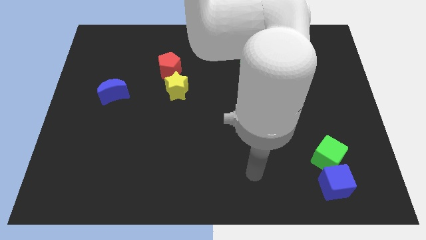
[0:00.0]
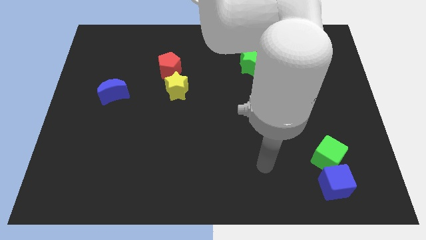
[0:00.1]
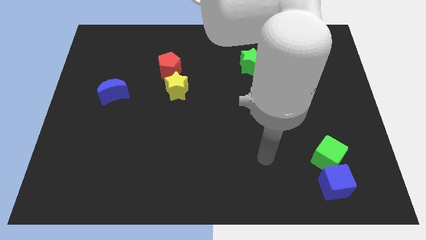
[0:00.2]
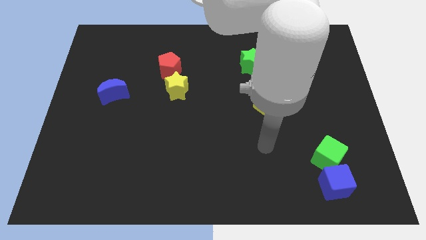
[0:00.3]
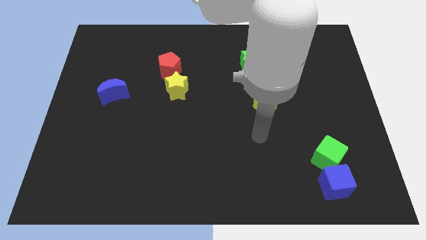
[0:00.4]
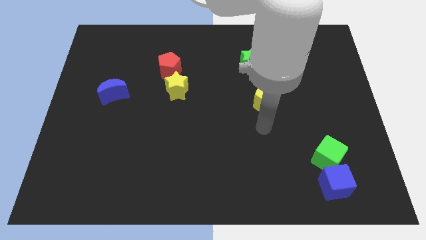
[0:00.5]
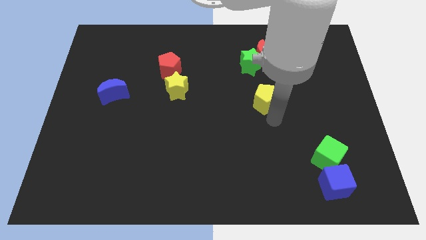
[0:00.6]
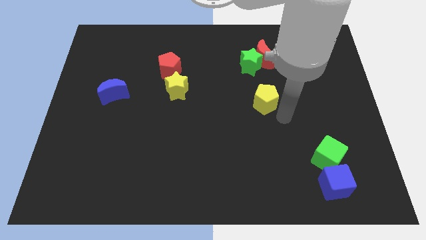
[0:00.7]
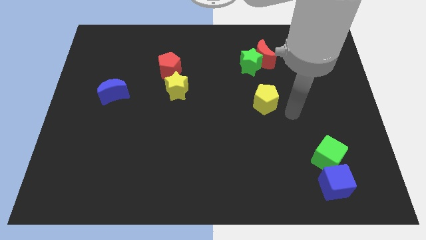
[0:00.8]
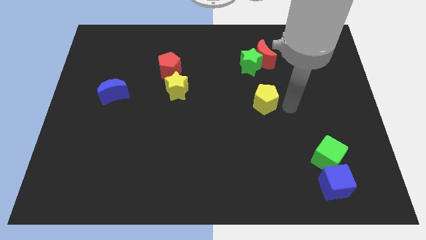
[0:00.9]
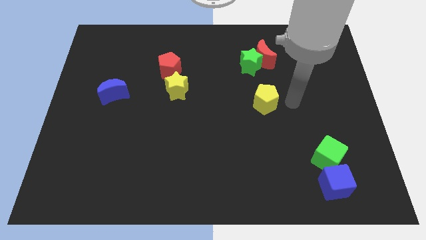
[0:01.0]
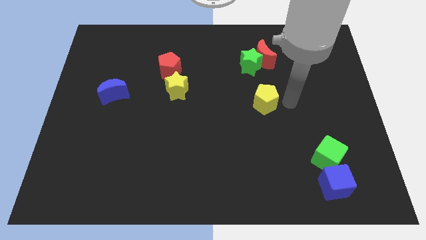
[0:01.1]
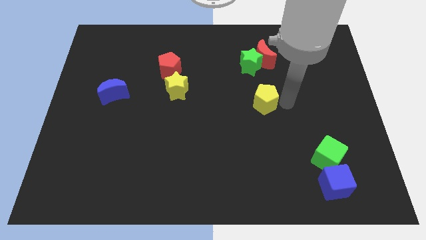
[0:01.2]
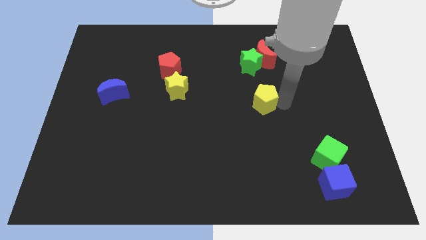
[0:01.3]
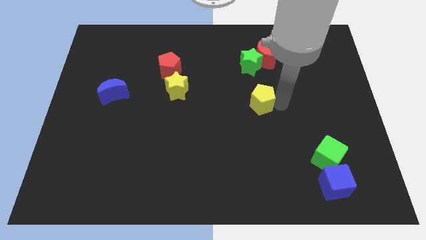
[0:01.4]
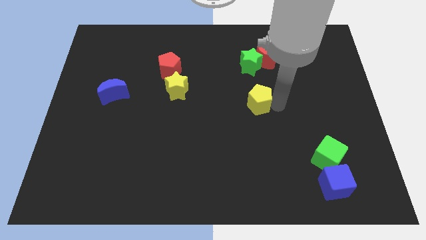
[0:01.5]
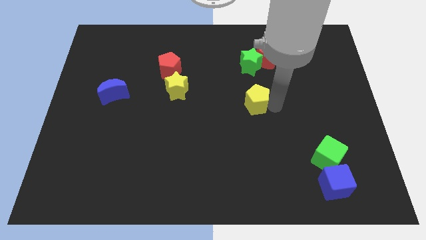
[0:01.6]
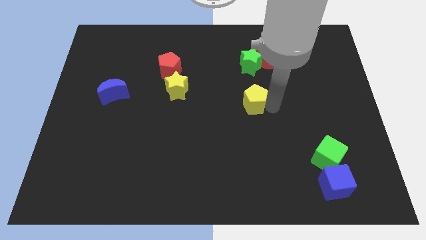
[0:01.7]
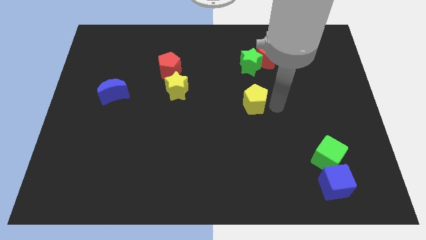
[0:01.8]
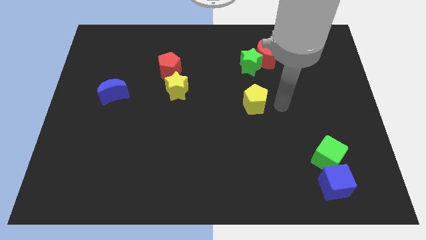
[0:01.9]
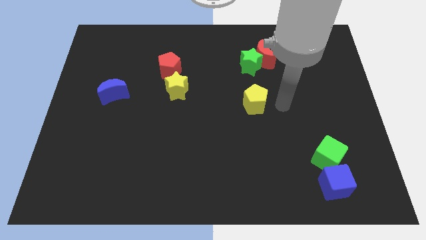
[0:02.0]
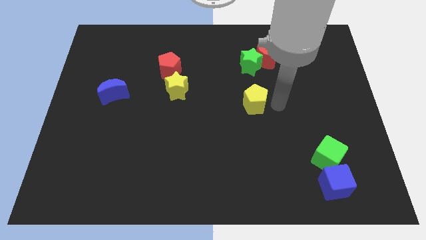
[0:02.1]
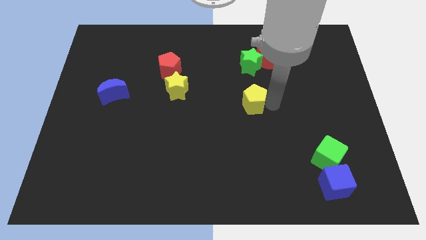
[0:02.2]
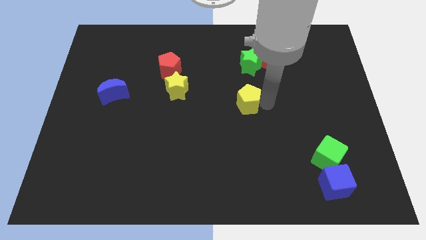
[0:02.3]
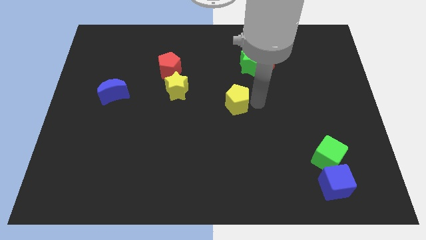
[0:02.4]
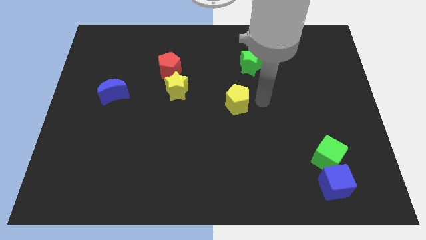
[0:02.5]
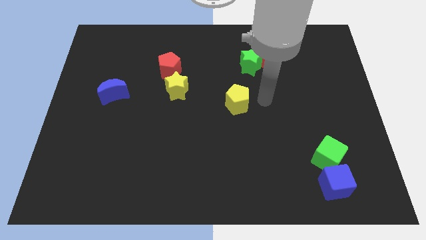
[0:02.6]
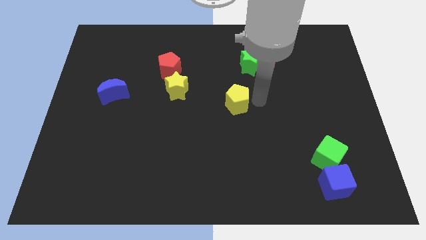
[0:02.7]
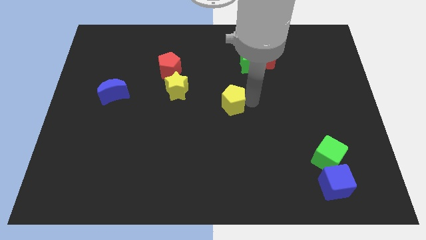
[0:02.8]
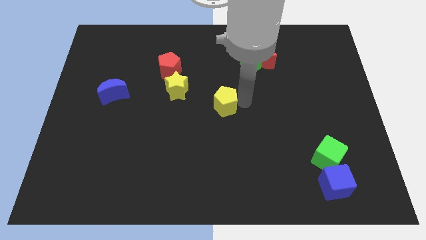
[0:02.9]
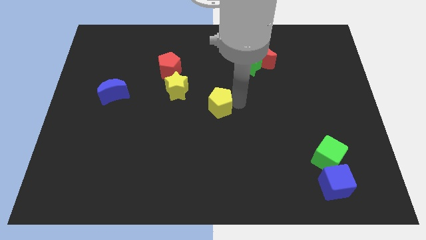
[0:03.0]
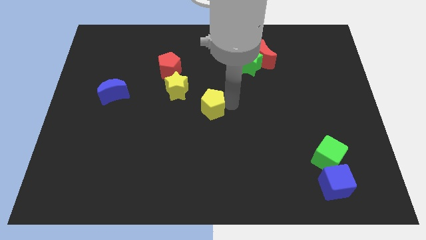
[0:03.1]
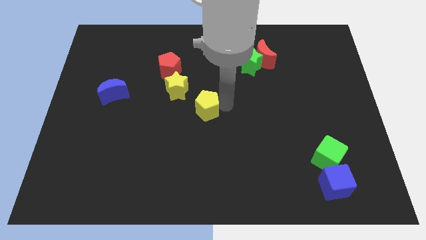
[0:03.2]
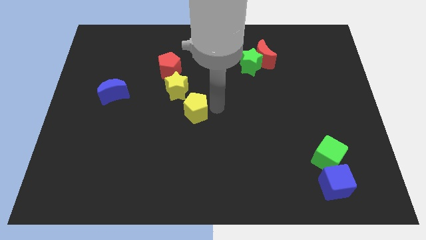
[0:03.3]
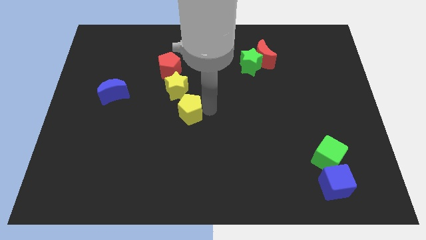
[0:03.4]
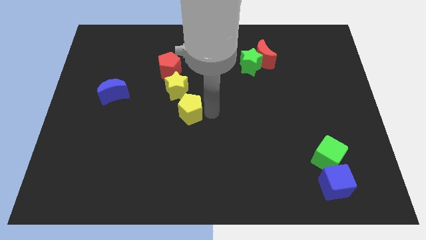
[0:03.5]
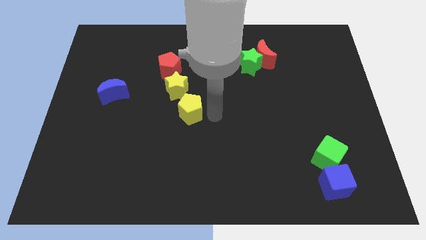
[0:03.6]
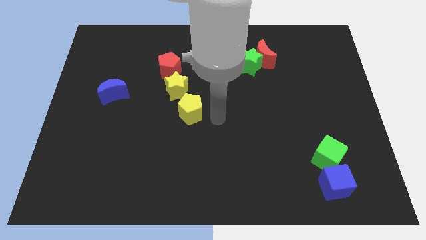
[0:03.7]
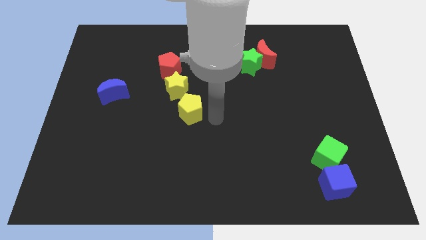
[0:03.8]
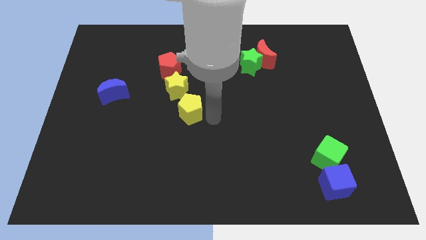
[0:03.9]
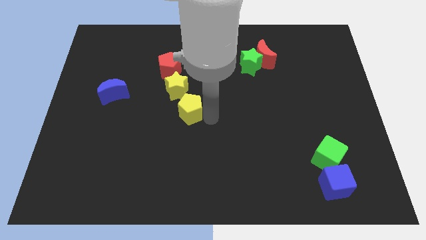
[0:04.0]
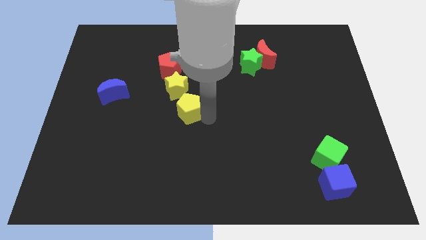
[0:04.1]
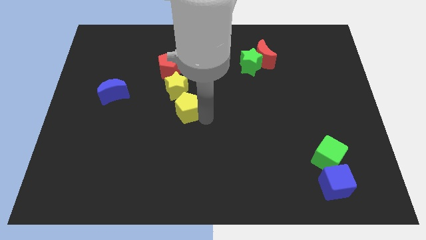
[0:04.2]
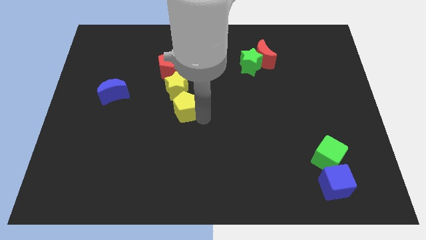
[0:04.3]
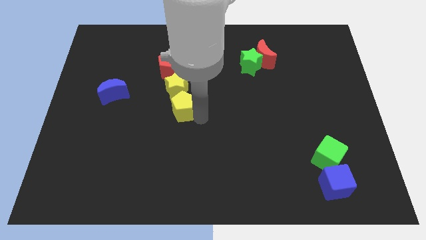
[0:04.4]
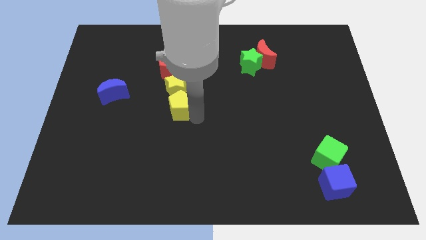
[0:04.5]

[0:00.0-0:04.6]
slide the yellow pentagon left

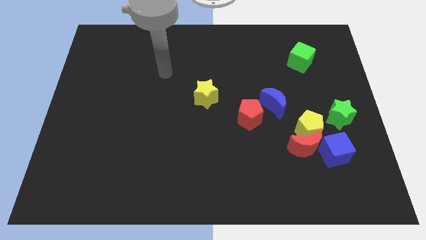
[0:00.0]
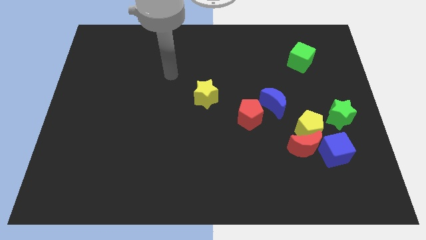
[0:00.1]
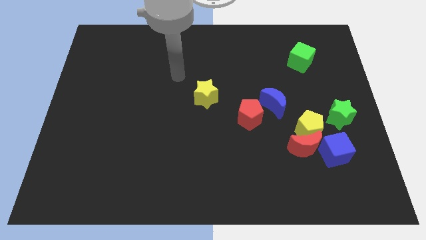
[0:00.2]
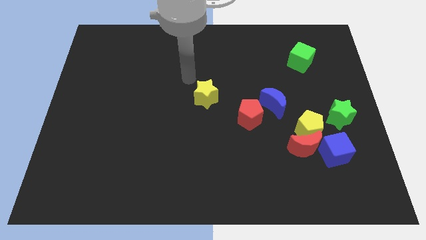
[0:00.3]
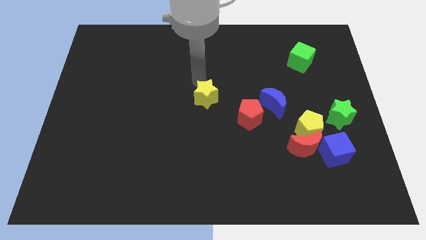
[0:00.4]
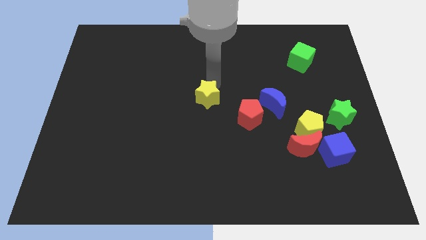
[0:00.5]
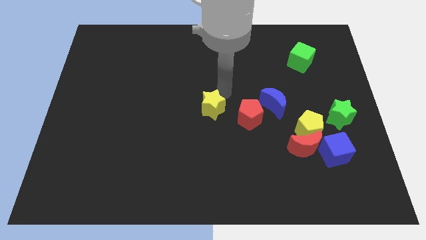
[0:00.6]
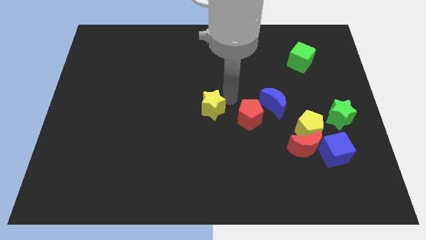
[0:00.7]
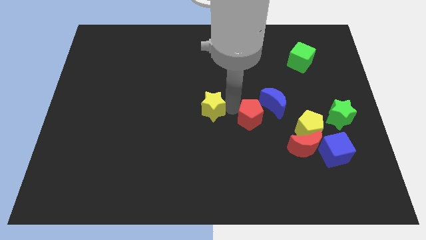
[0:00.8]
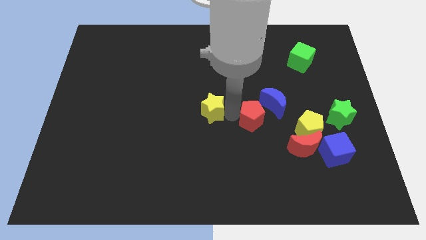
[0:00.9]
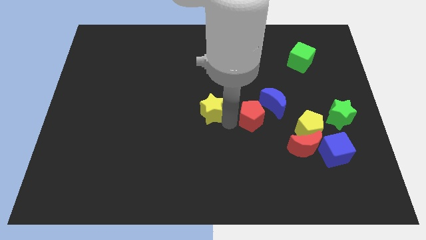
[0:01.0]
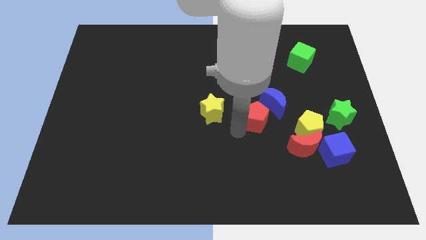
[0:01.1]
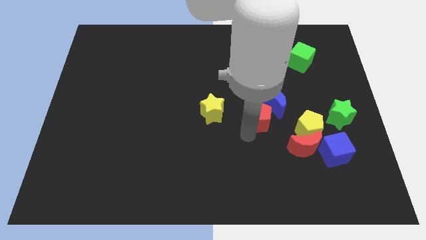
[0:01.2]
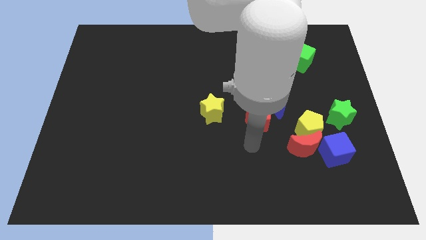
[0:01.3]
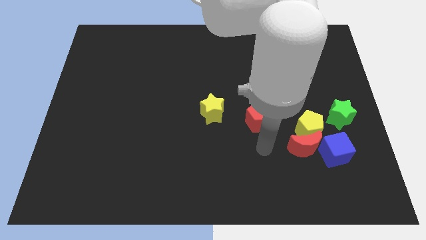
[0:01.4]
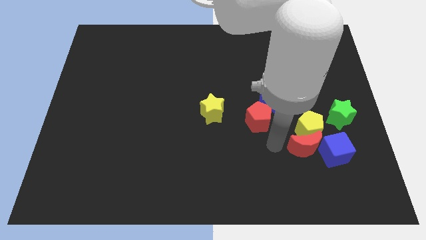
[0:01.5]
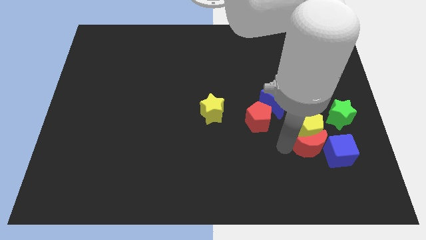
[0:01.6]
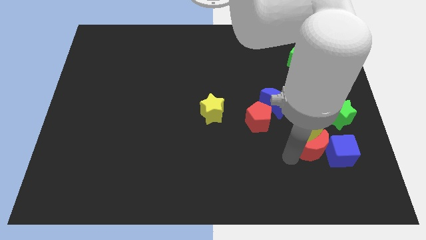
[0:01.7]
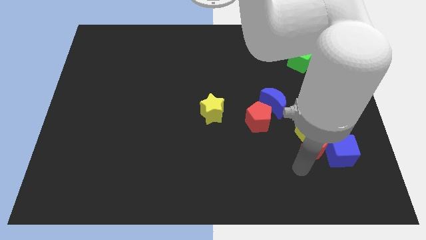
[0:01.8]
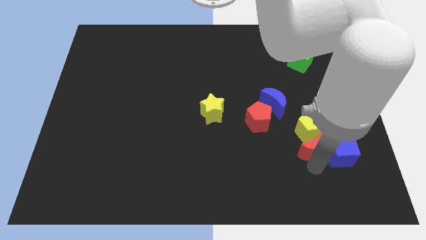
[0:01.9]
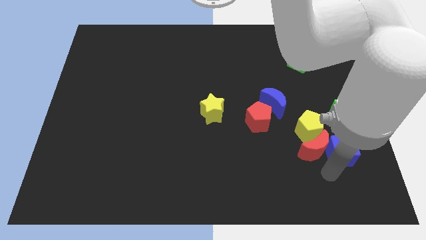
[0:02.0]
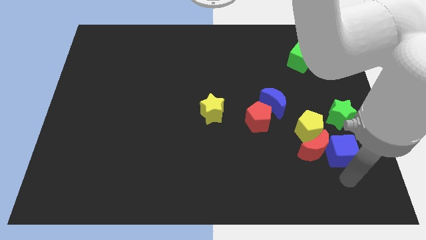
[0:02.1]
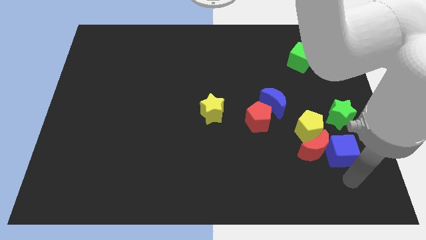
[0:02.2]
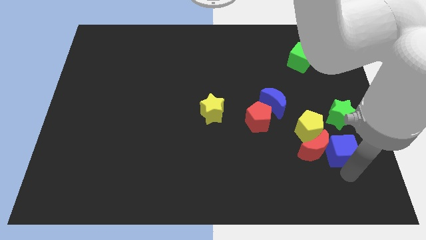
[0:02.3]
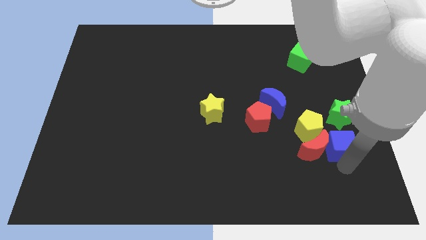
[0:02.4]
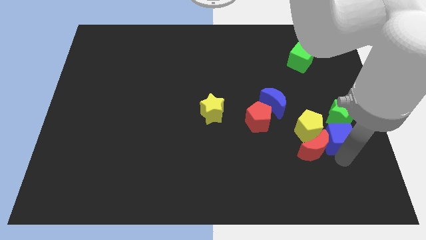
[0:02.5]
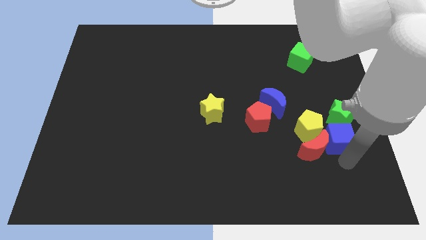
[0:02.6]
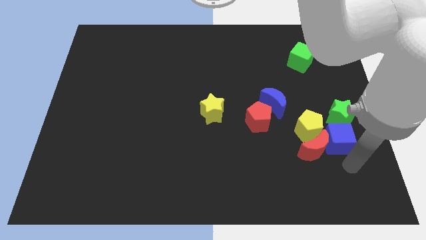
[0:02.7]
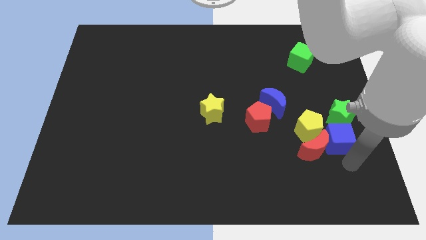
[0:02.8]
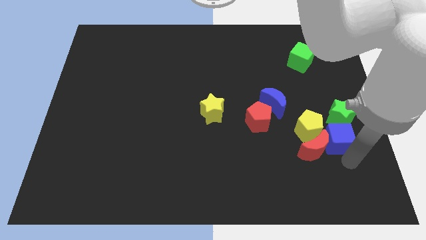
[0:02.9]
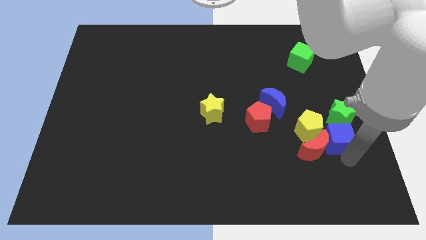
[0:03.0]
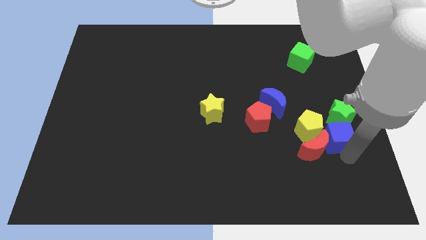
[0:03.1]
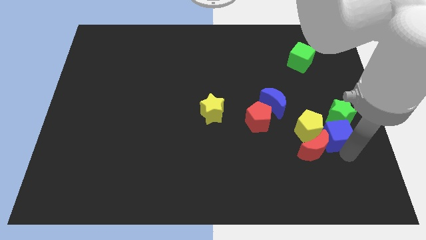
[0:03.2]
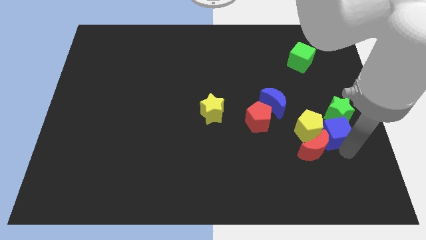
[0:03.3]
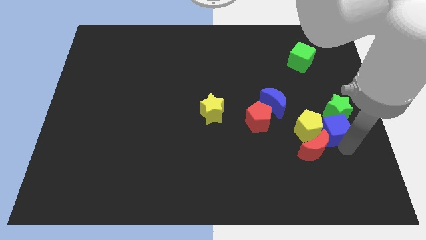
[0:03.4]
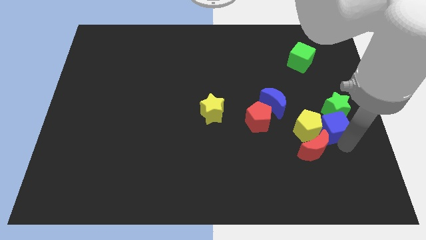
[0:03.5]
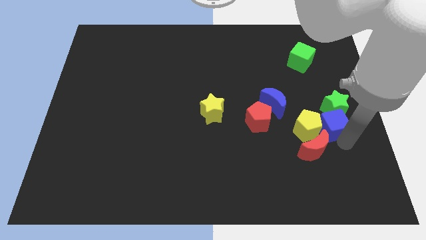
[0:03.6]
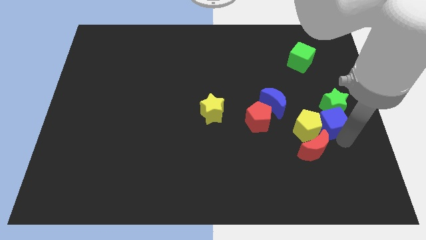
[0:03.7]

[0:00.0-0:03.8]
move the blue cube a little upwards
